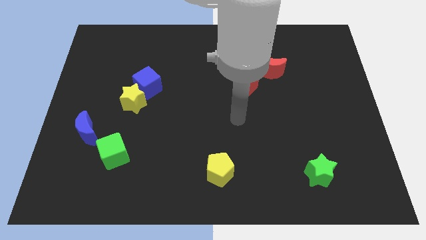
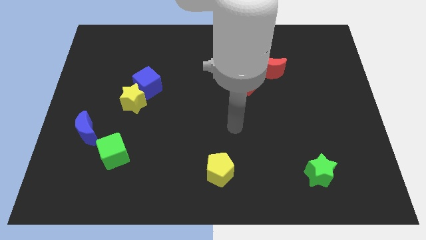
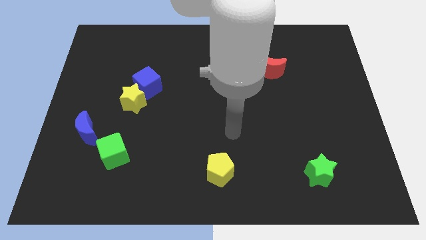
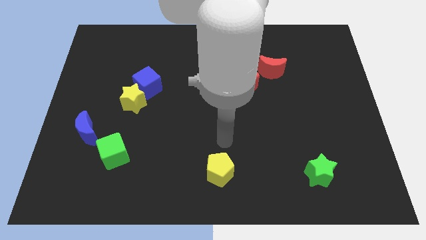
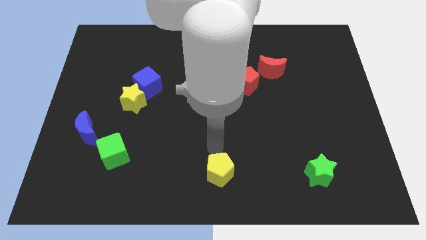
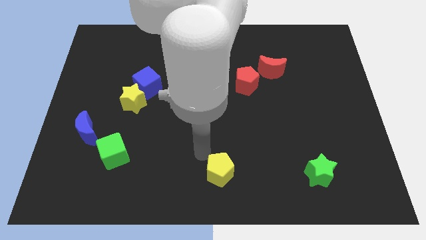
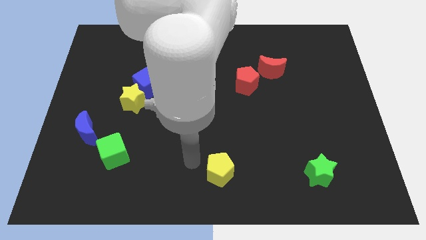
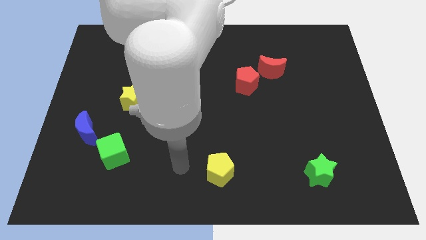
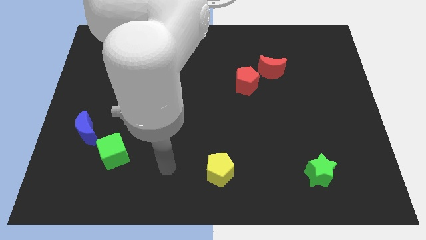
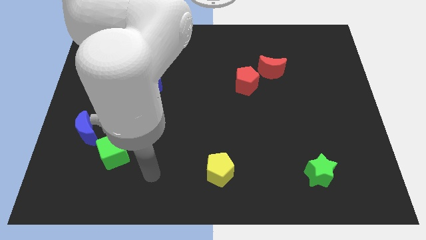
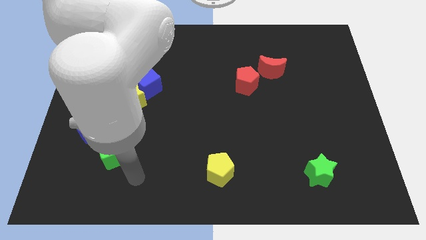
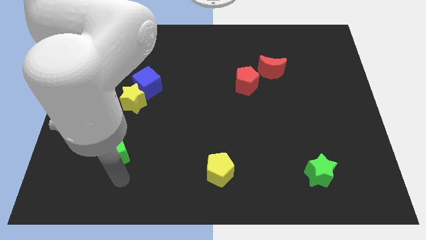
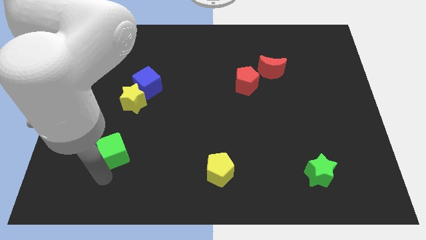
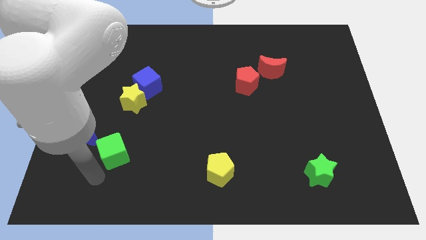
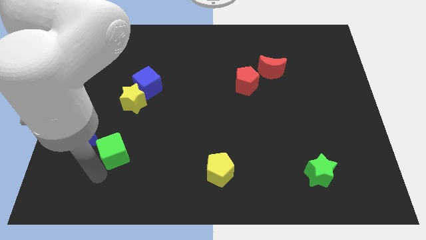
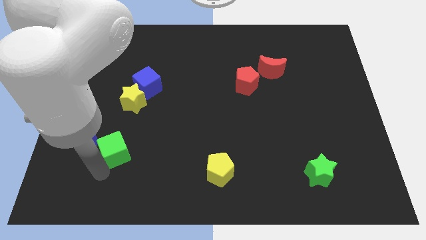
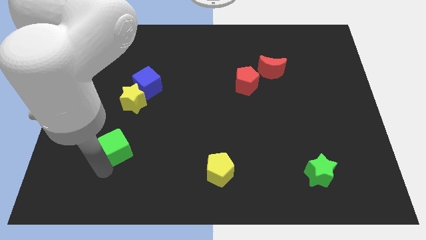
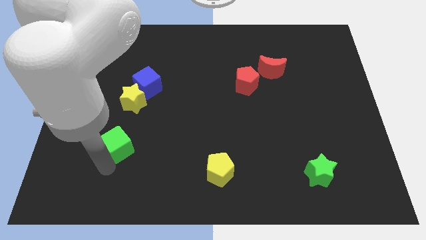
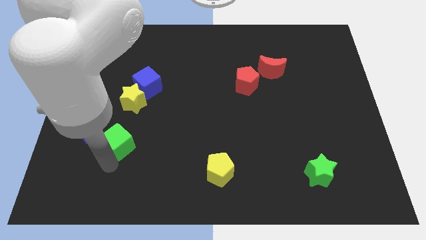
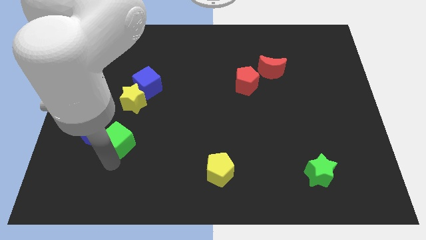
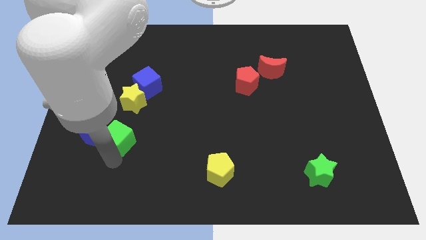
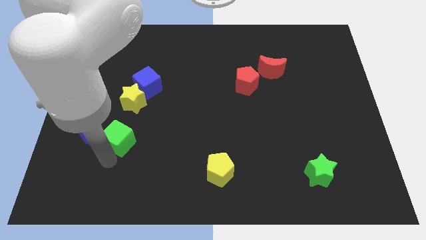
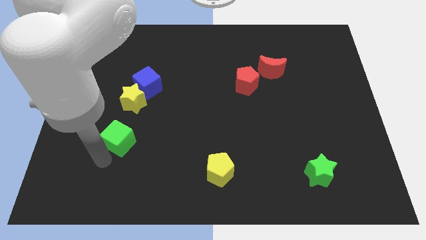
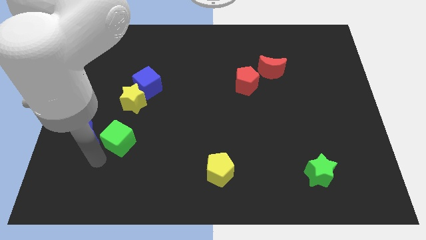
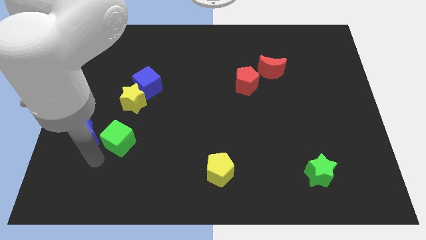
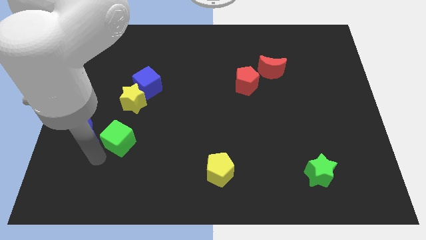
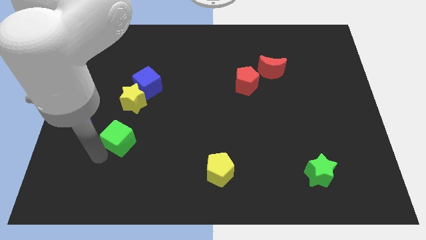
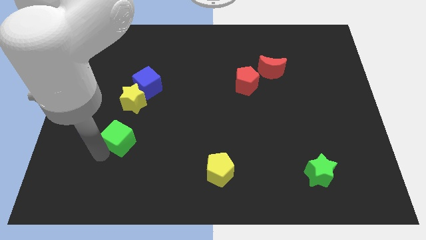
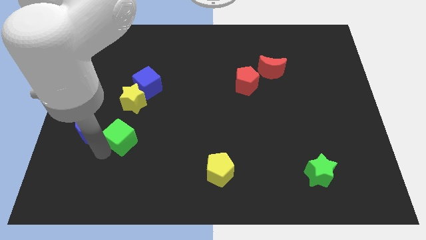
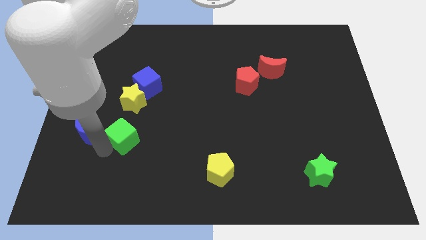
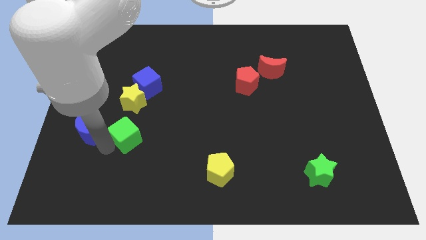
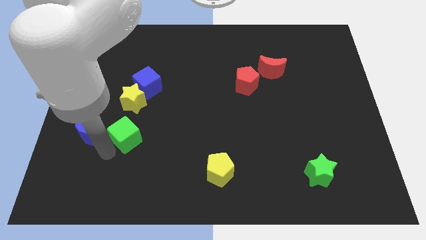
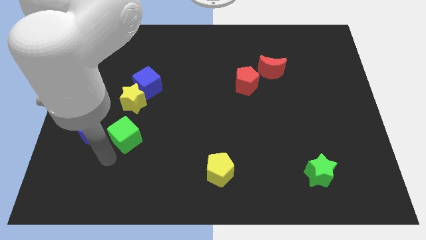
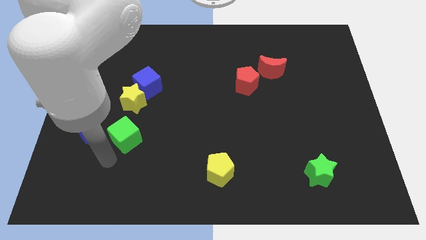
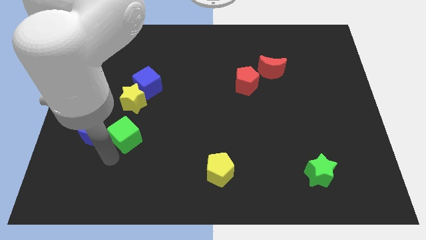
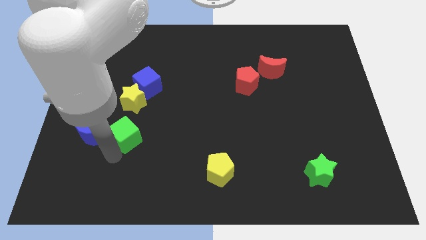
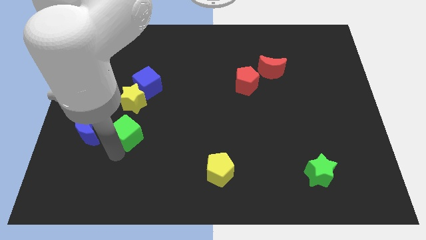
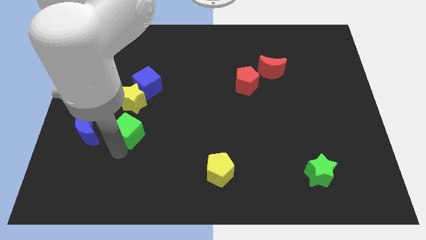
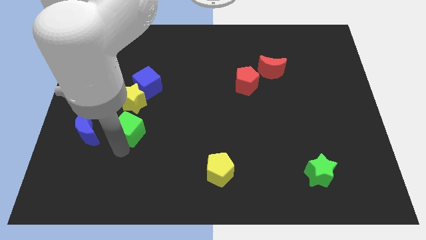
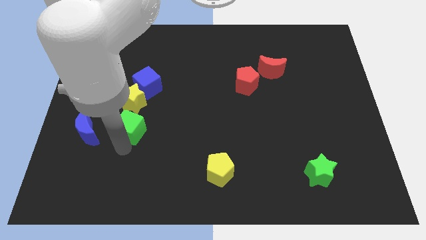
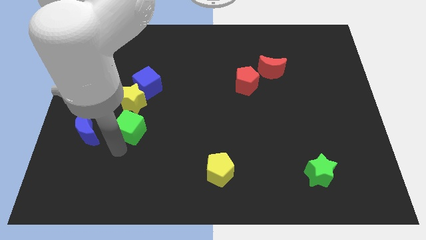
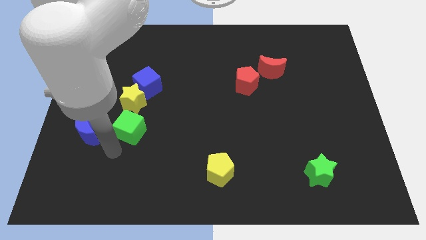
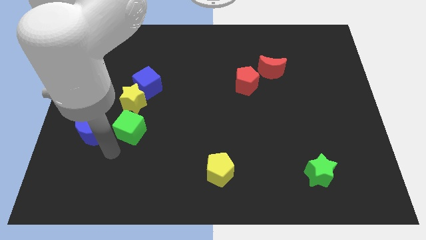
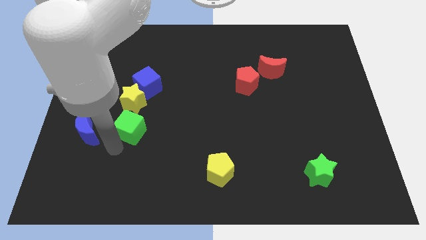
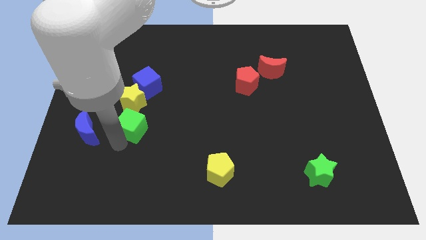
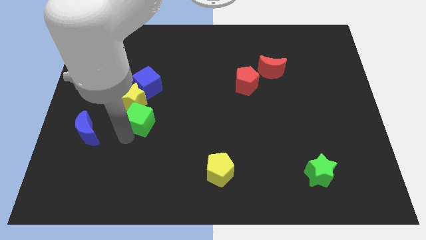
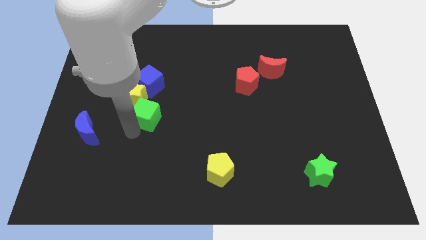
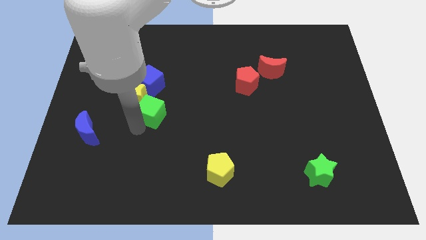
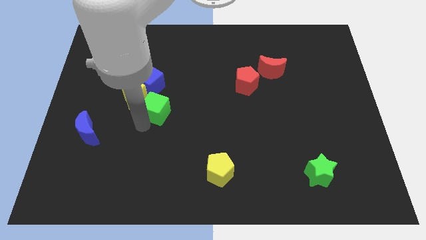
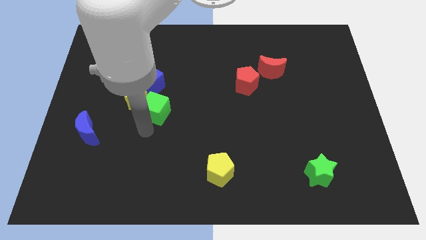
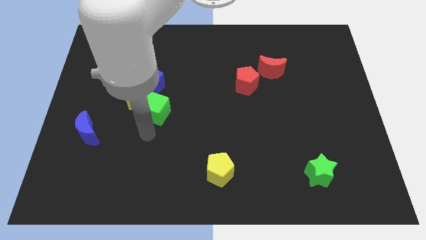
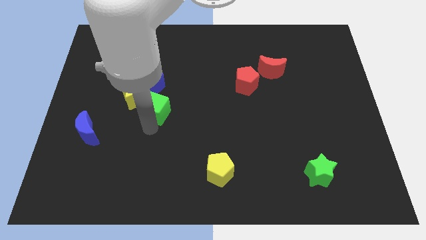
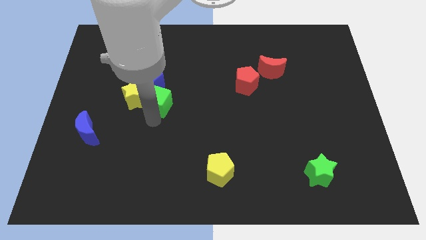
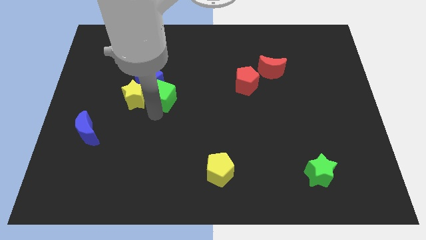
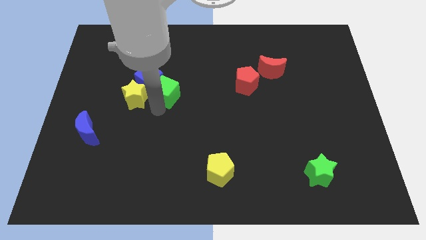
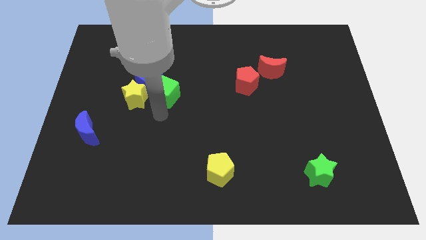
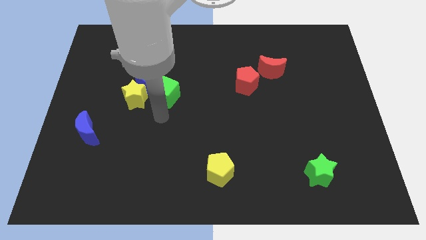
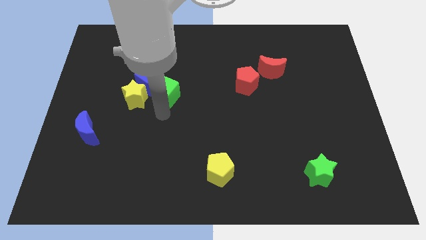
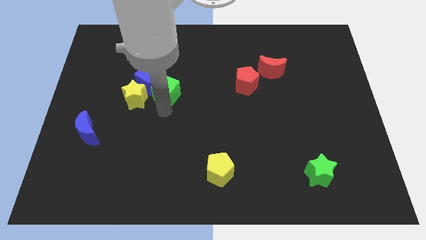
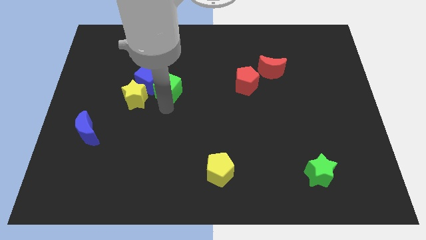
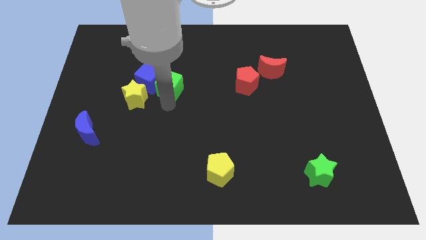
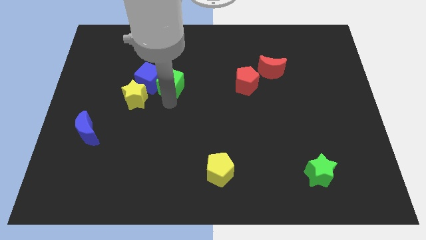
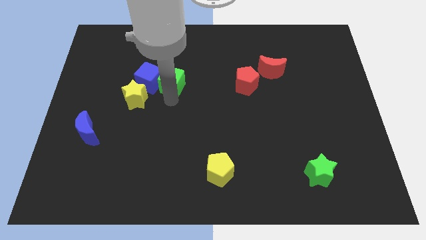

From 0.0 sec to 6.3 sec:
slide the green cube to the top right side of the blue cube

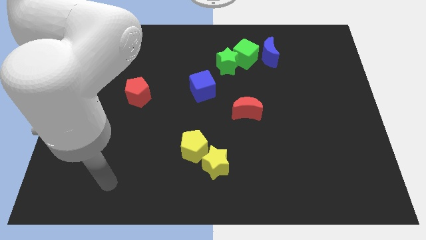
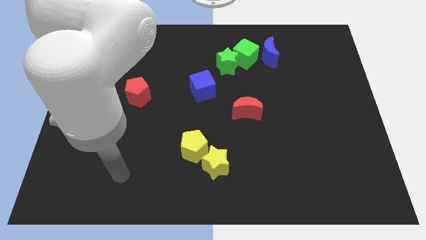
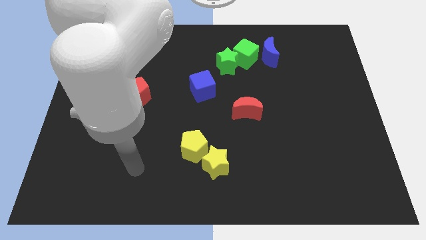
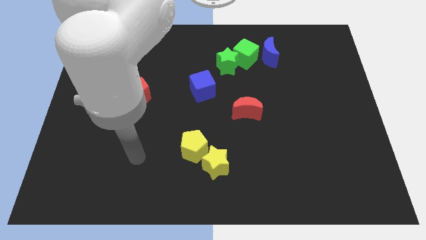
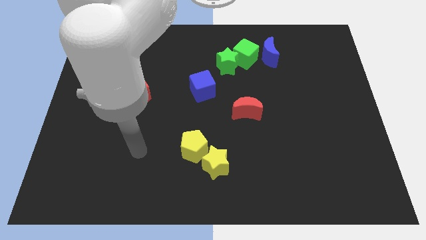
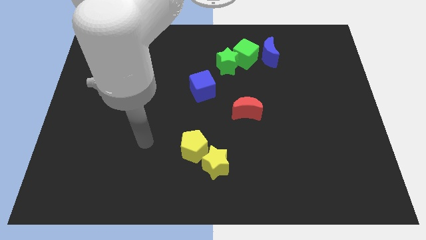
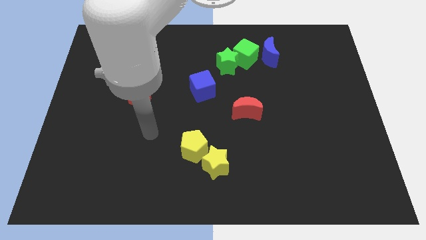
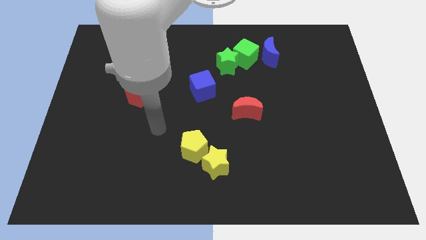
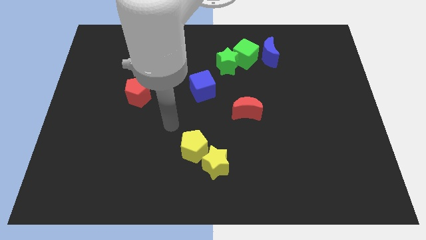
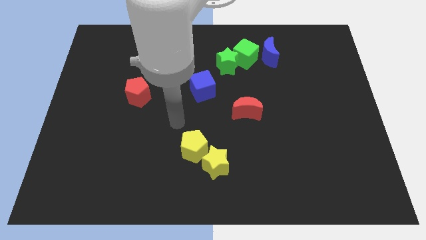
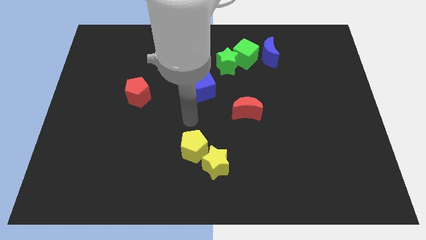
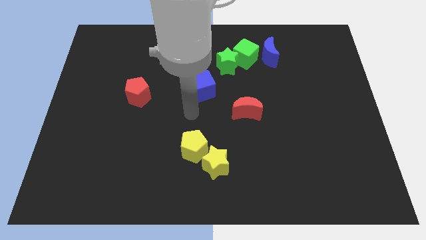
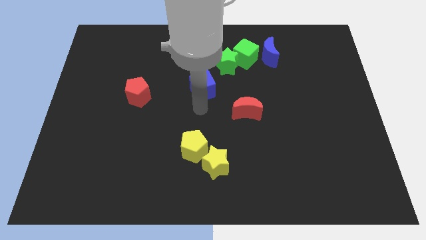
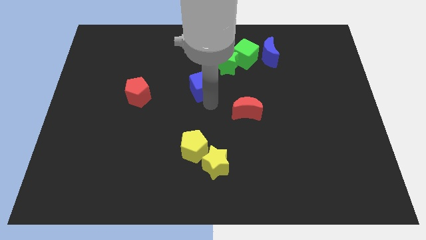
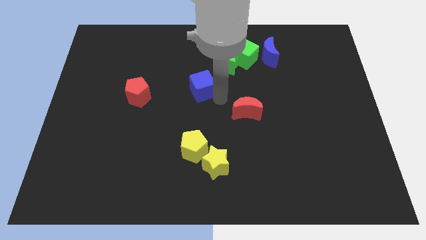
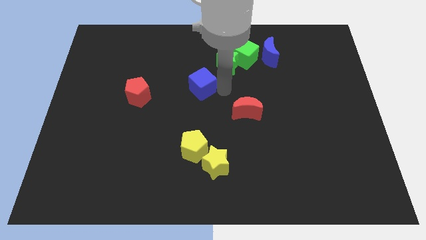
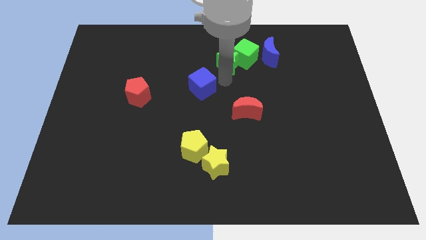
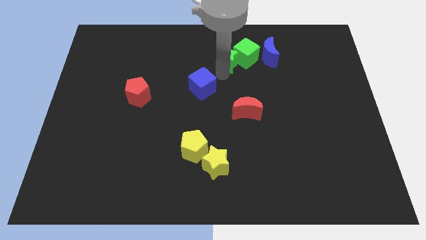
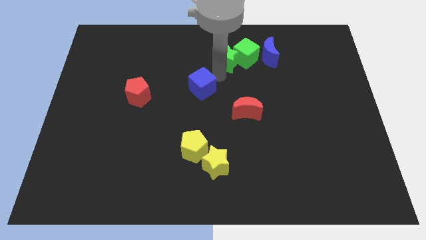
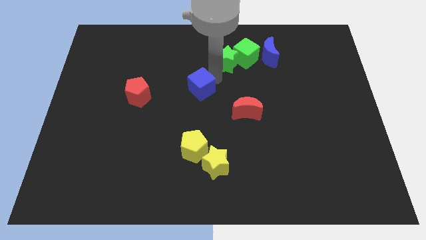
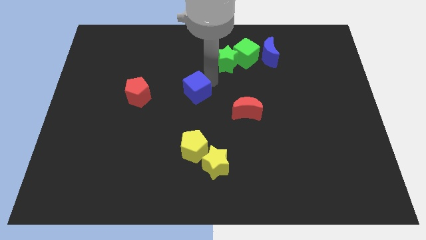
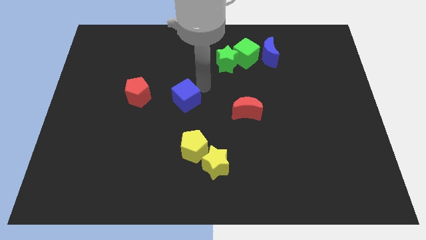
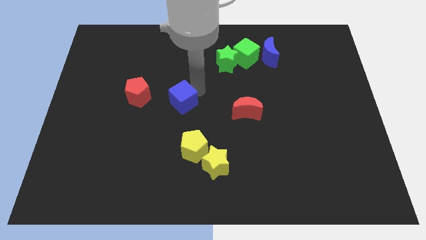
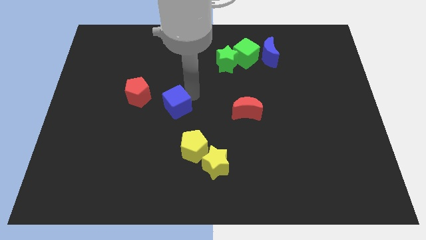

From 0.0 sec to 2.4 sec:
push the blue cube diagonally down and to the right of the red pentagon
